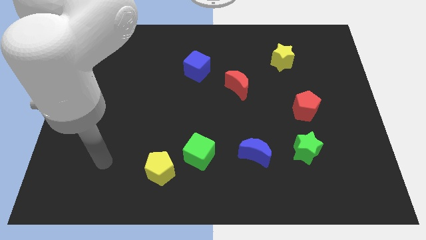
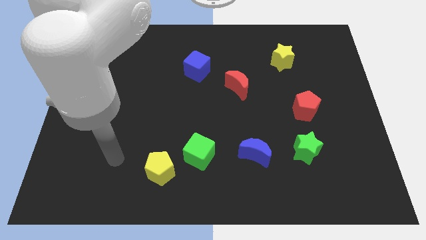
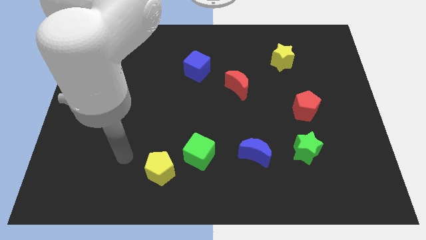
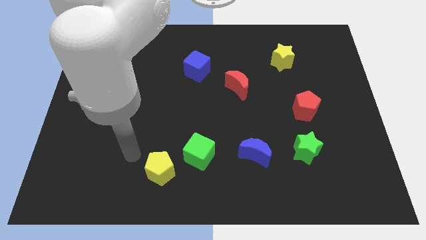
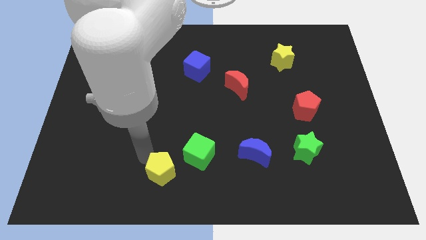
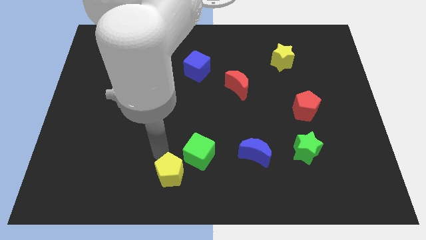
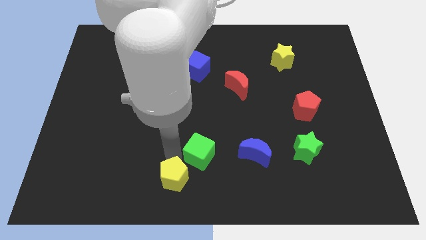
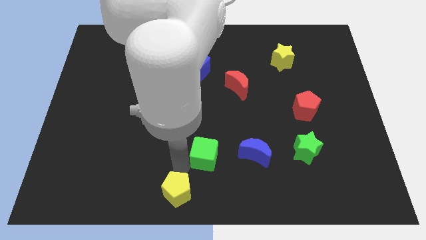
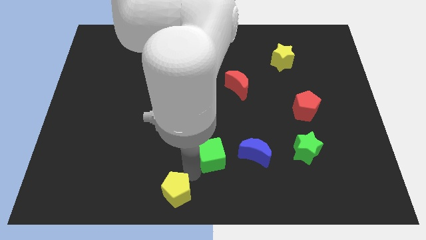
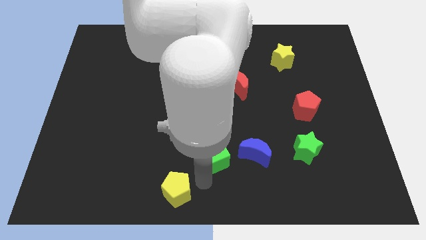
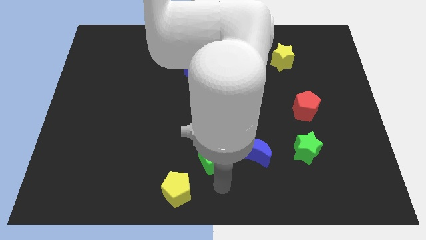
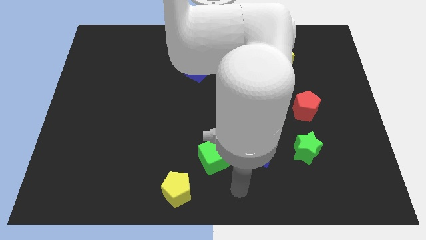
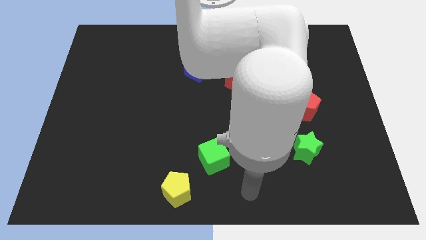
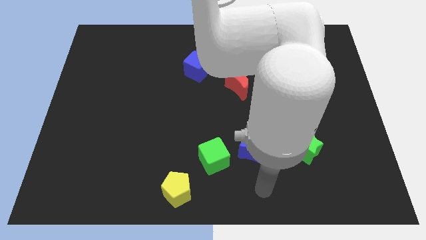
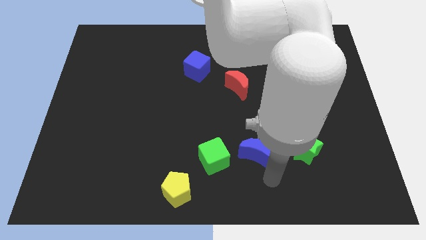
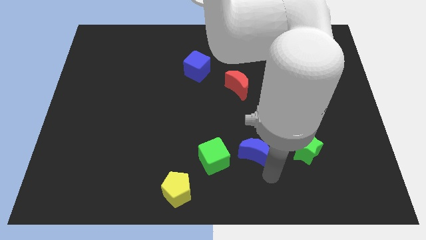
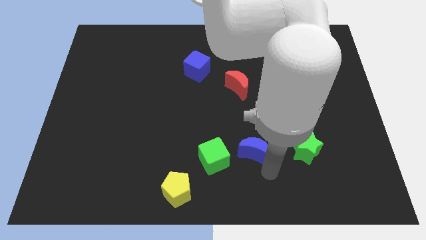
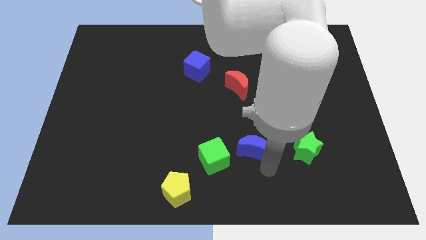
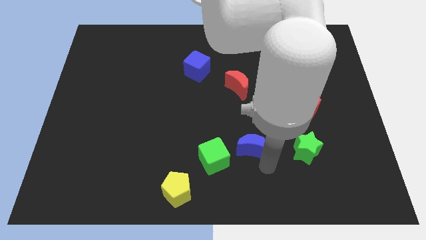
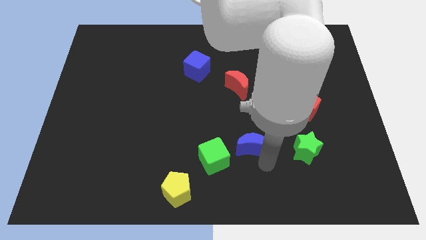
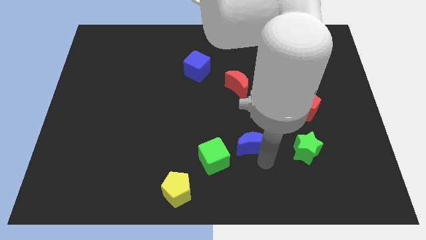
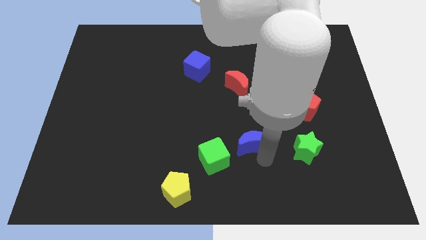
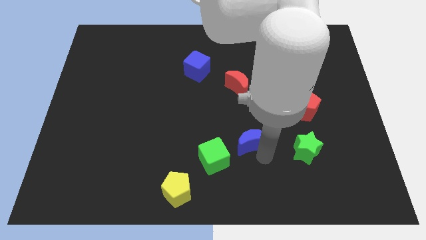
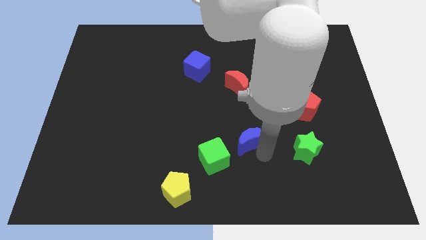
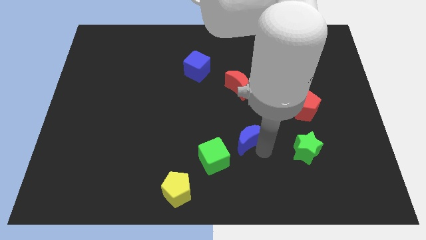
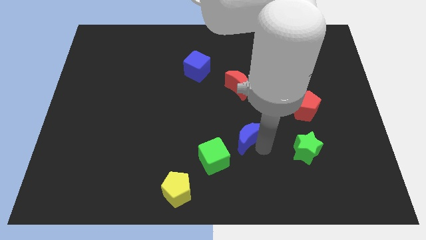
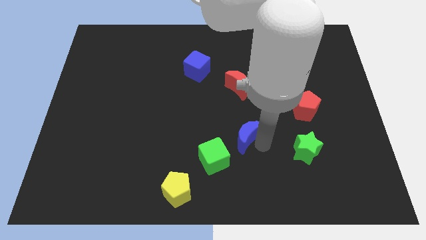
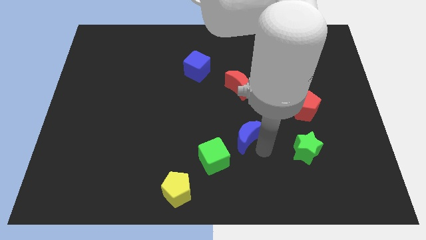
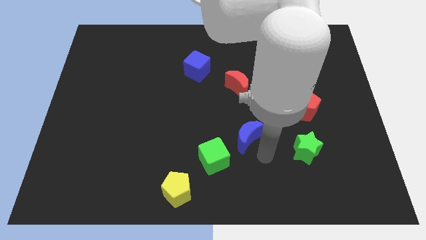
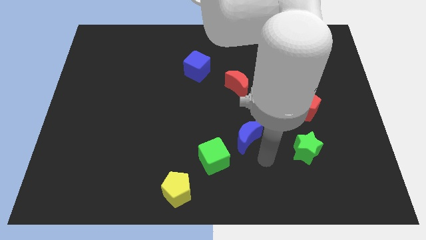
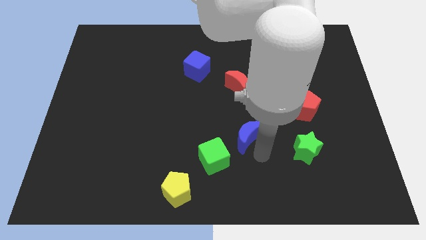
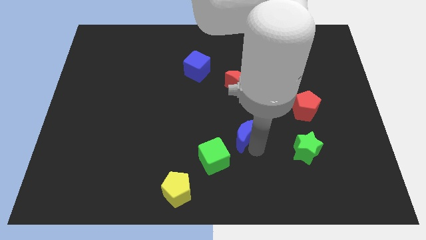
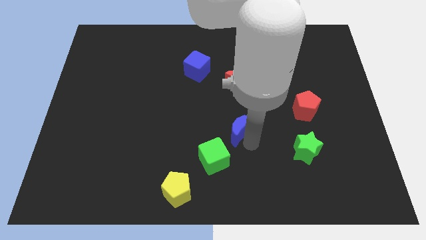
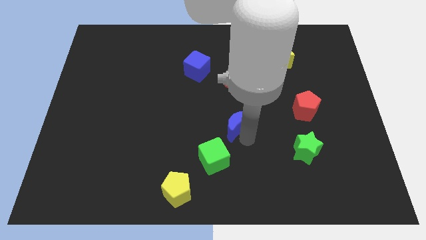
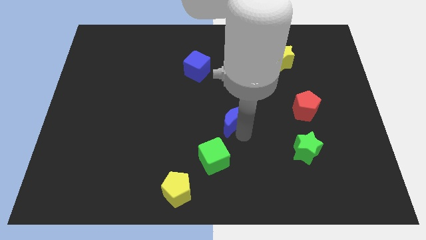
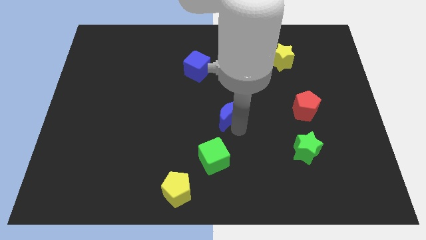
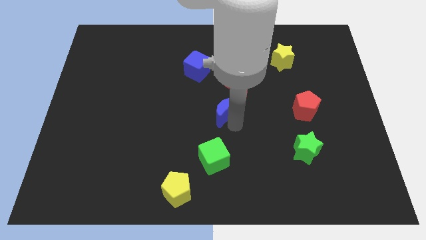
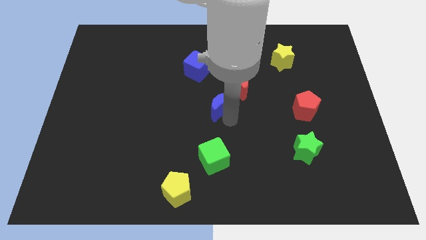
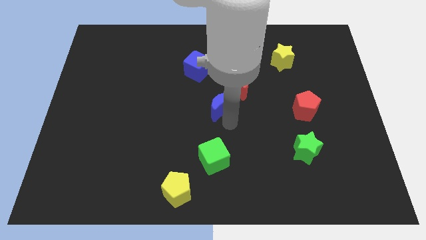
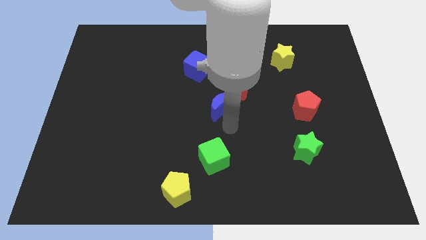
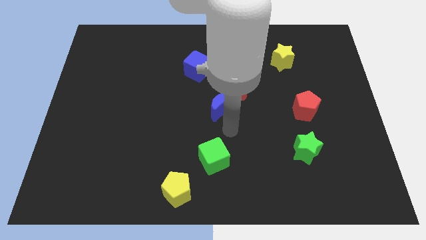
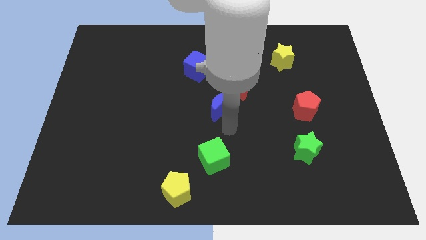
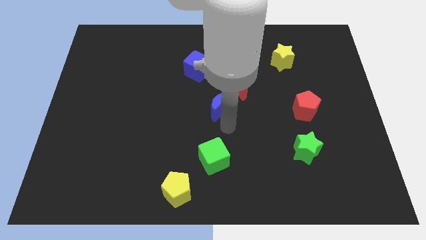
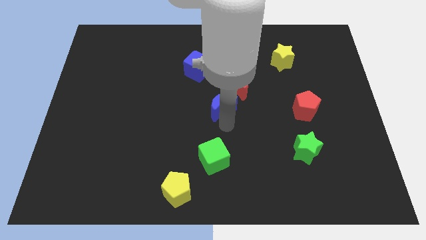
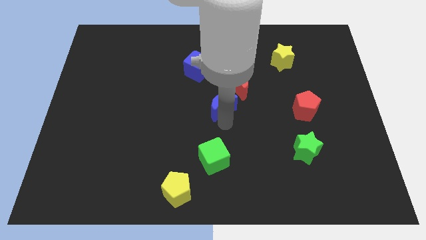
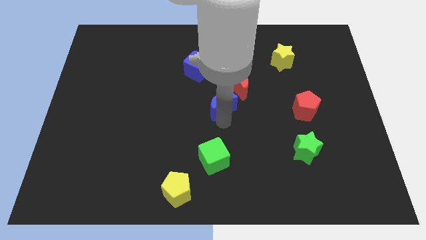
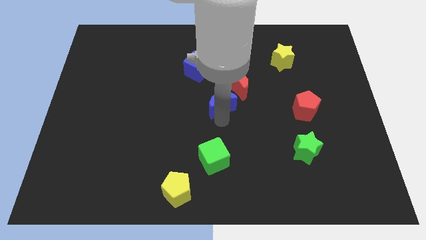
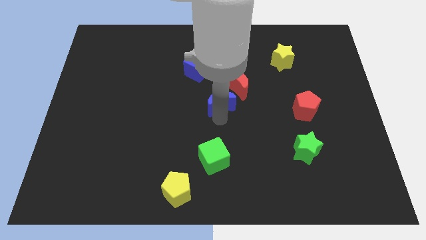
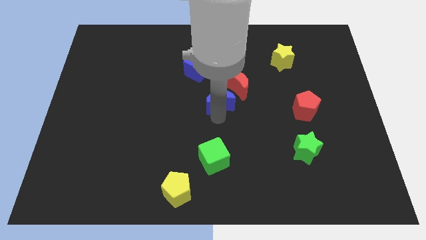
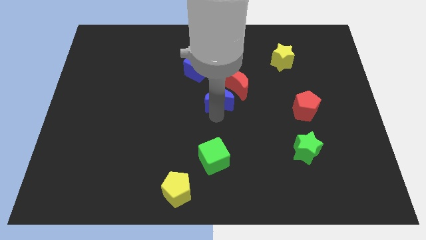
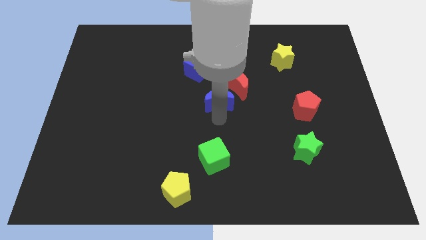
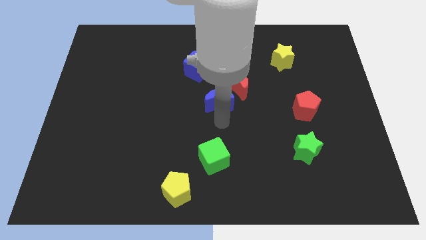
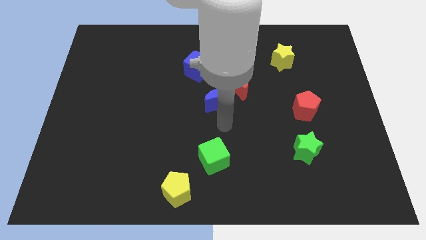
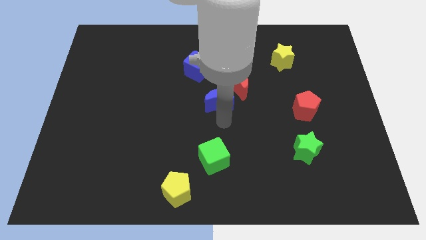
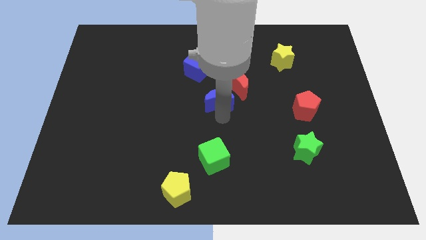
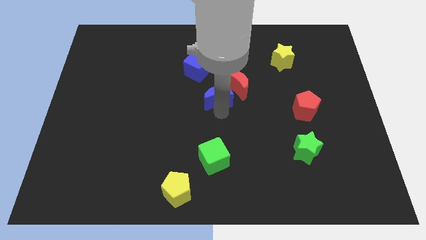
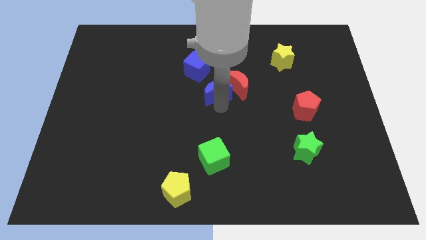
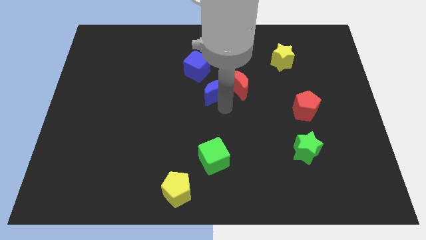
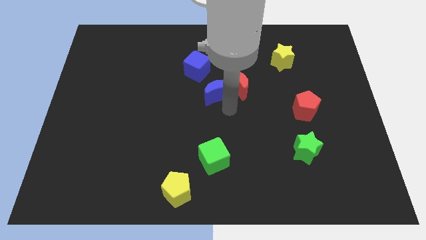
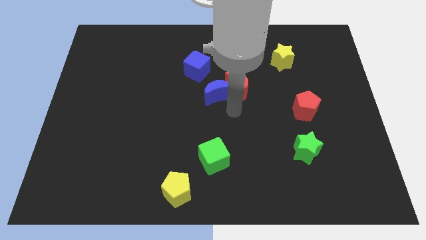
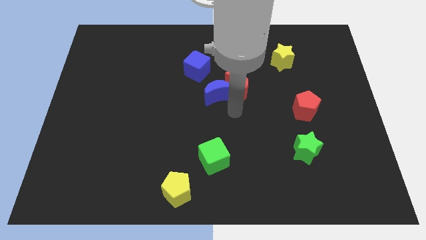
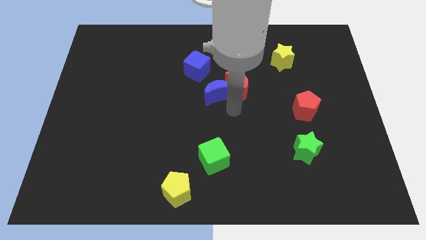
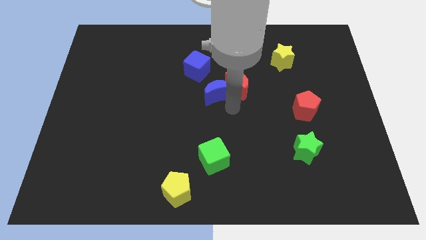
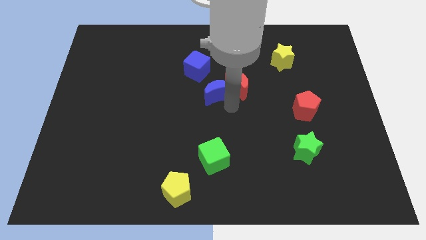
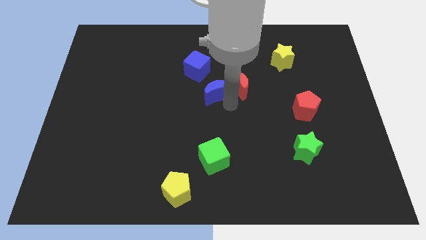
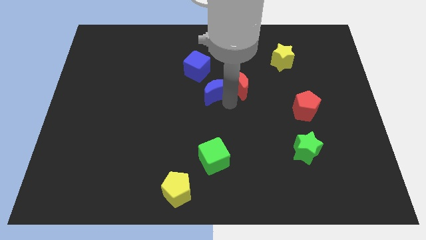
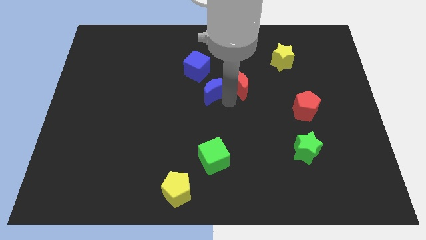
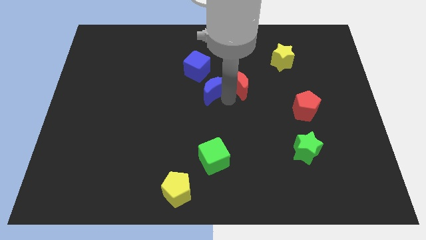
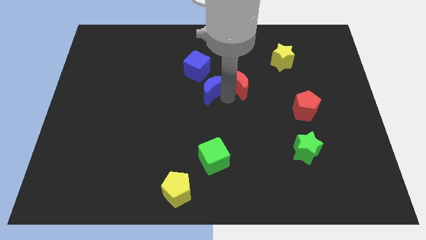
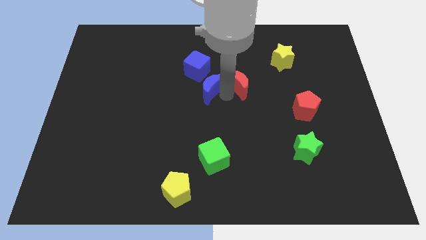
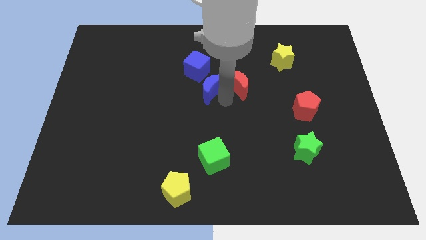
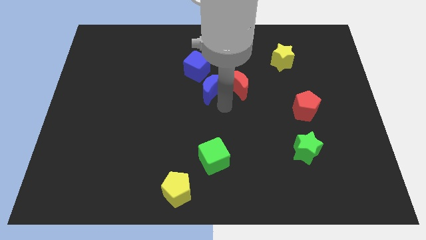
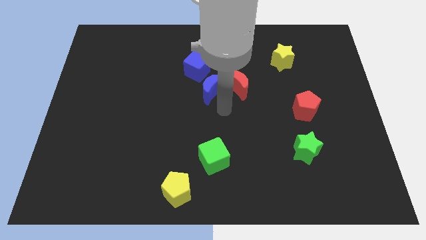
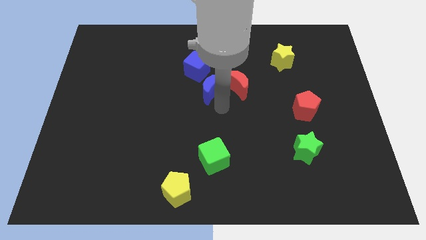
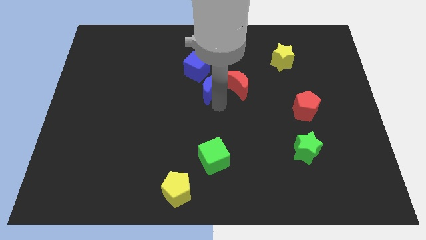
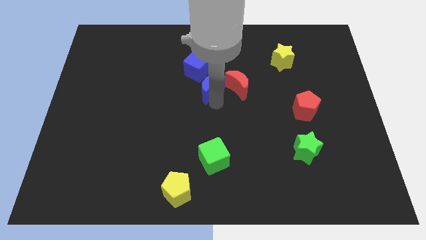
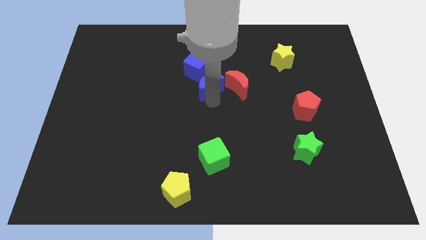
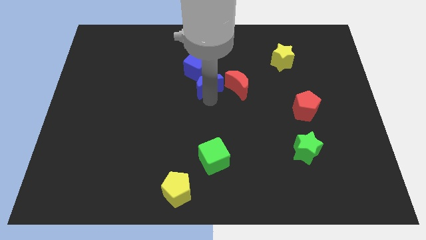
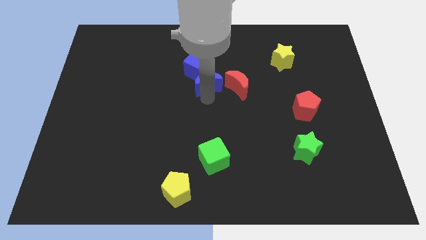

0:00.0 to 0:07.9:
push the blue moon next to the blue cube
